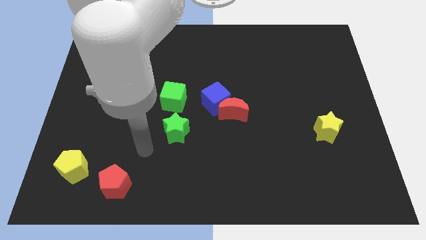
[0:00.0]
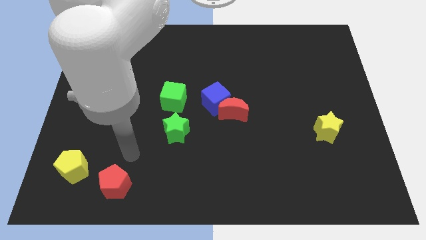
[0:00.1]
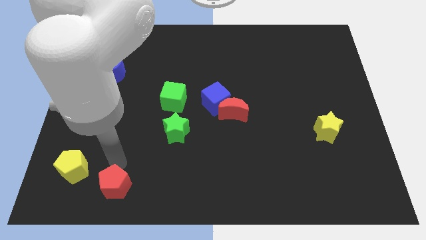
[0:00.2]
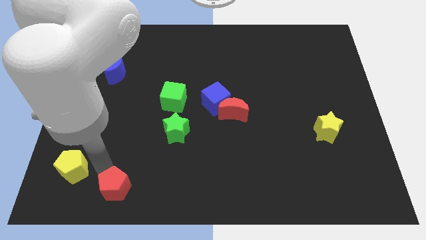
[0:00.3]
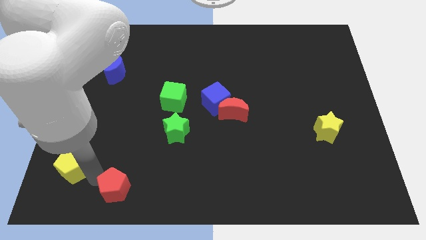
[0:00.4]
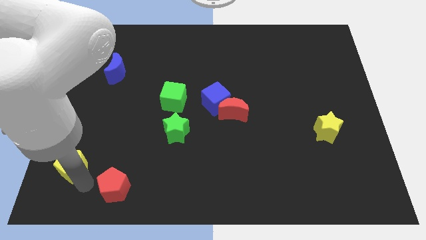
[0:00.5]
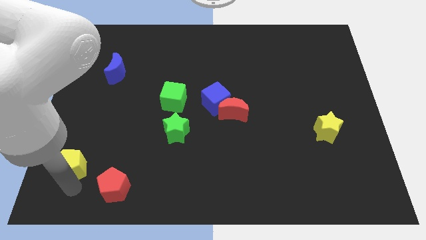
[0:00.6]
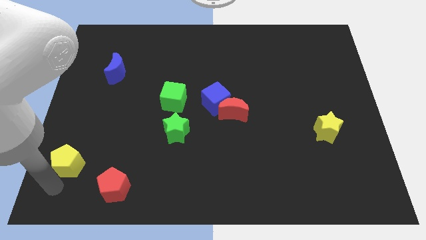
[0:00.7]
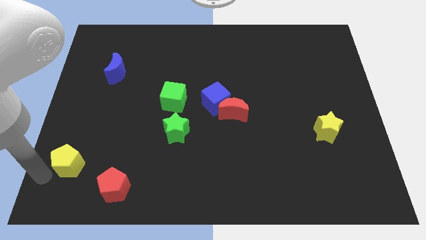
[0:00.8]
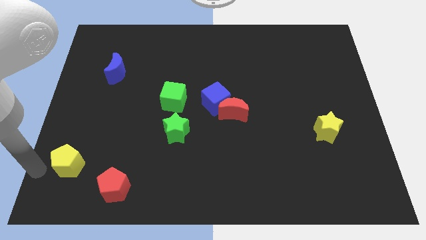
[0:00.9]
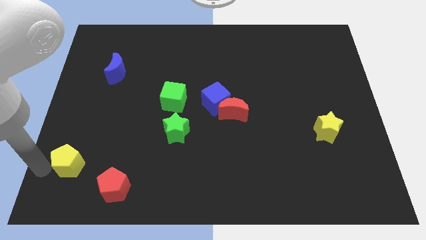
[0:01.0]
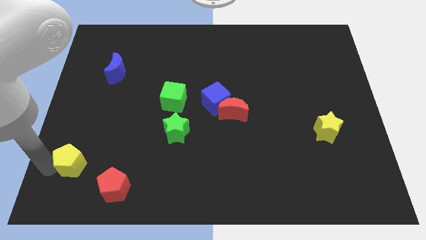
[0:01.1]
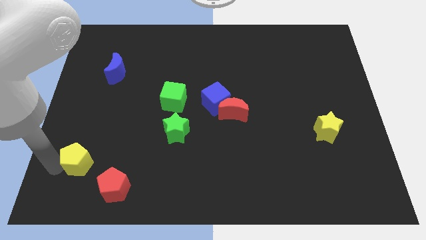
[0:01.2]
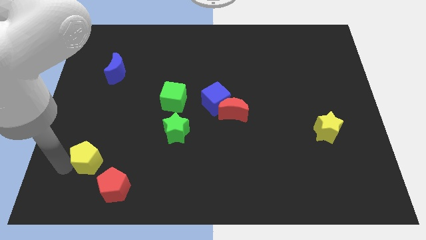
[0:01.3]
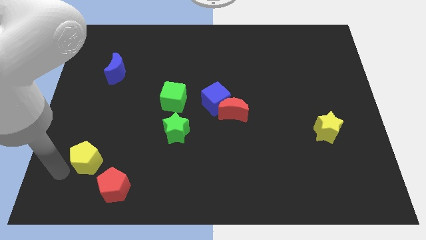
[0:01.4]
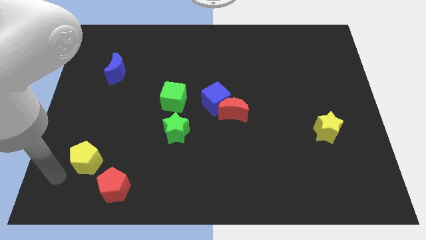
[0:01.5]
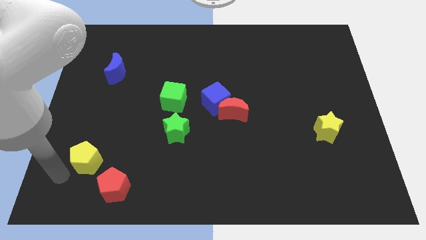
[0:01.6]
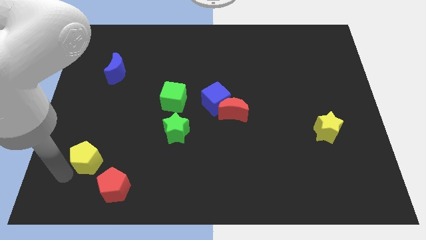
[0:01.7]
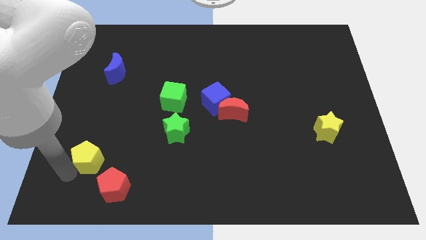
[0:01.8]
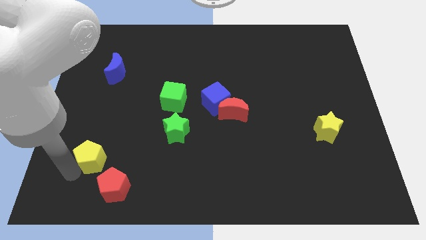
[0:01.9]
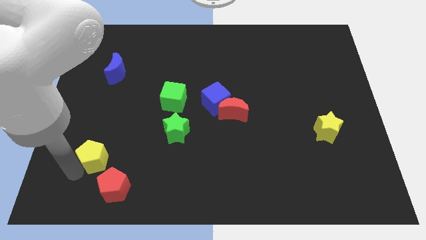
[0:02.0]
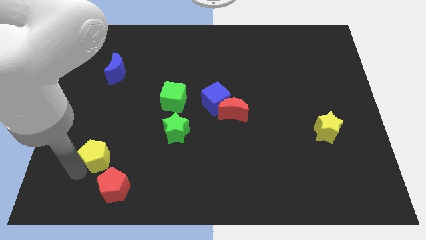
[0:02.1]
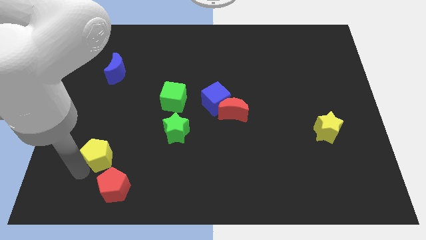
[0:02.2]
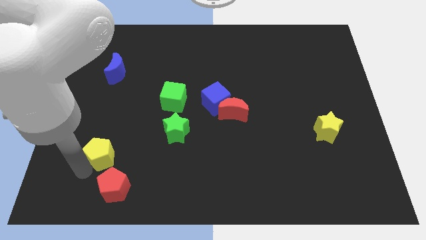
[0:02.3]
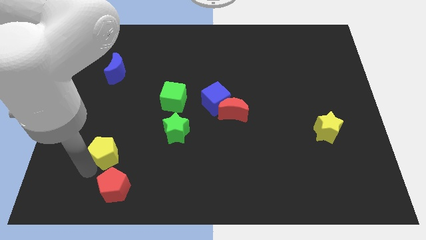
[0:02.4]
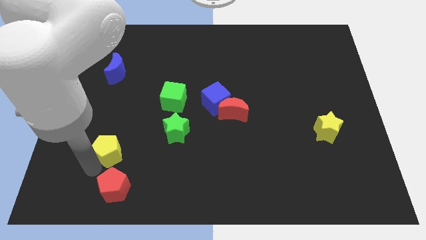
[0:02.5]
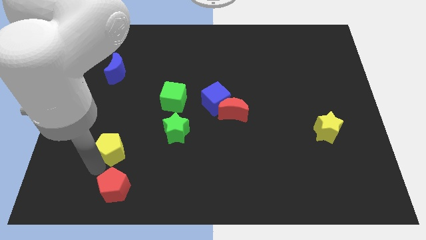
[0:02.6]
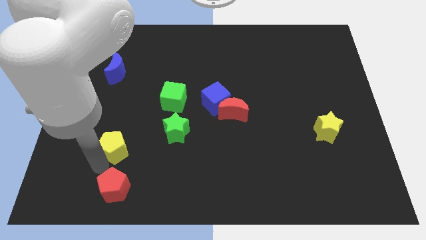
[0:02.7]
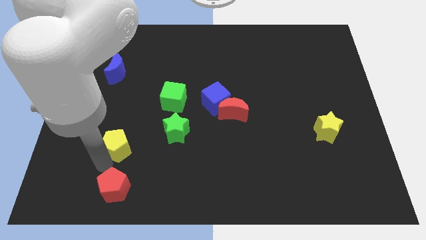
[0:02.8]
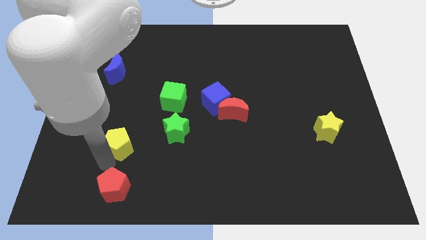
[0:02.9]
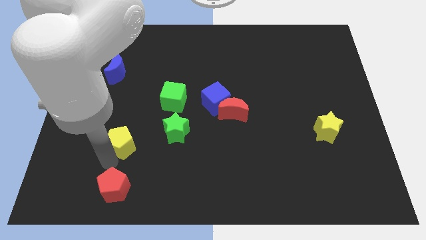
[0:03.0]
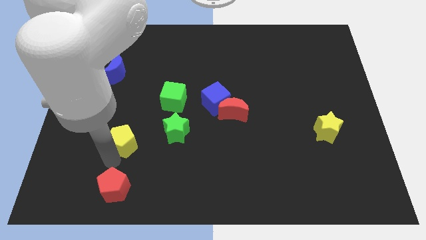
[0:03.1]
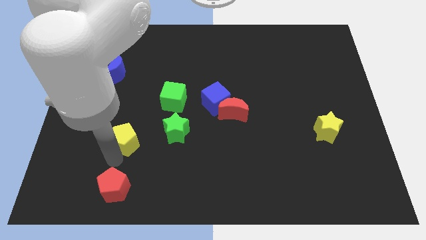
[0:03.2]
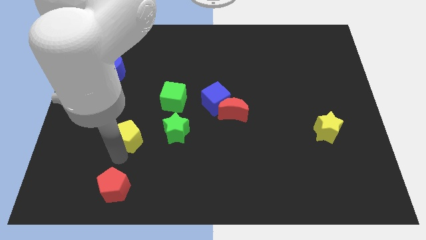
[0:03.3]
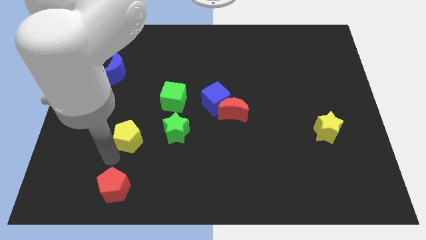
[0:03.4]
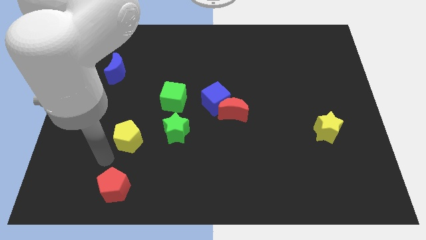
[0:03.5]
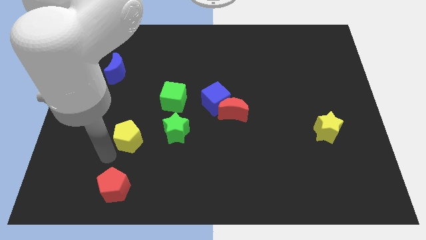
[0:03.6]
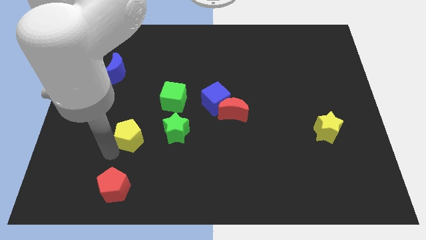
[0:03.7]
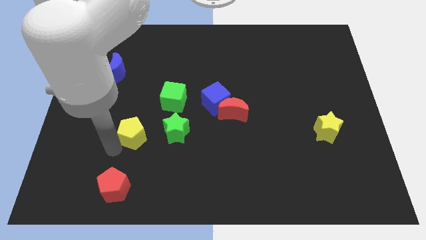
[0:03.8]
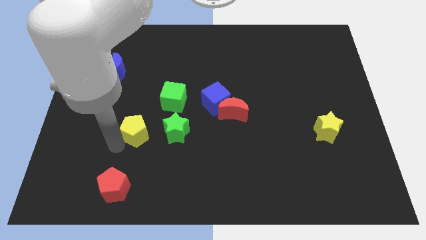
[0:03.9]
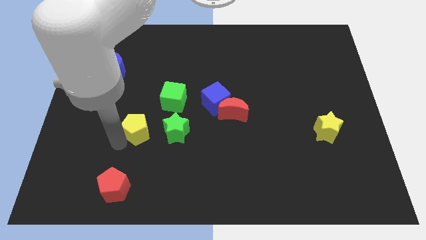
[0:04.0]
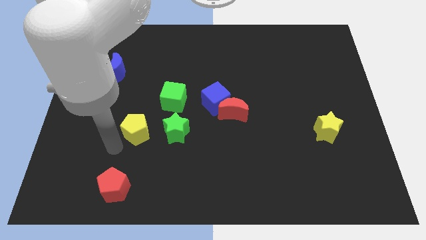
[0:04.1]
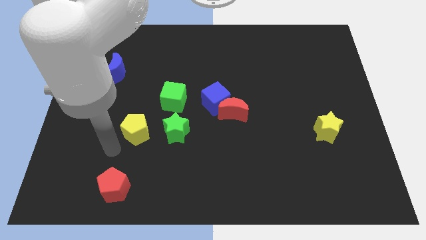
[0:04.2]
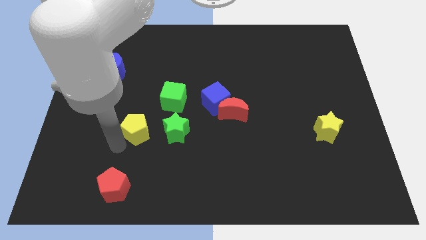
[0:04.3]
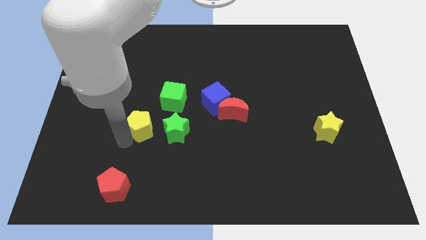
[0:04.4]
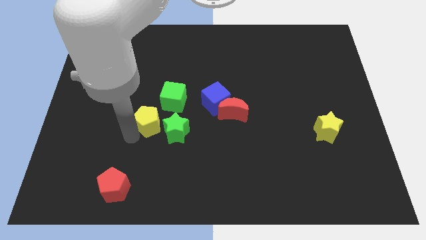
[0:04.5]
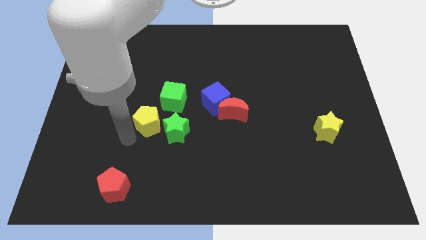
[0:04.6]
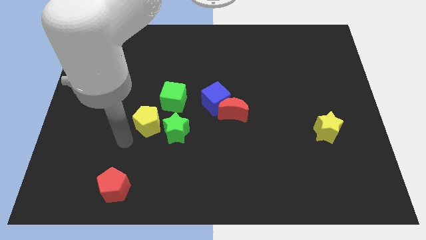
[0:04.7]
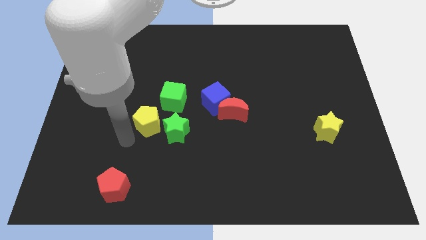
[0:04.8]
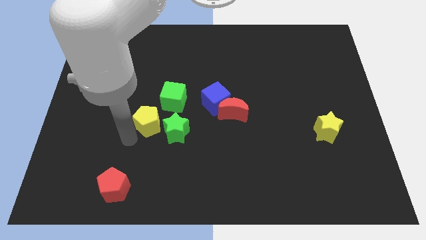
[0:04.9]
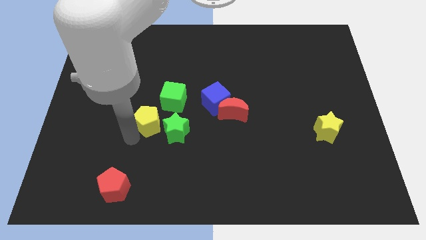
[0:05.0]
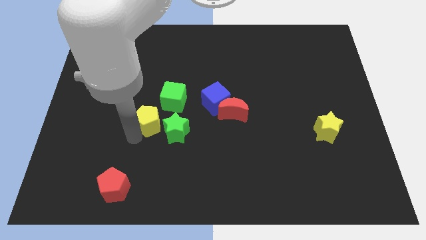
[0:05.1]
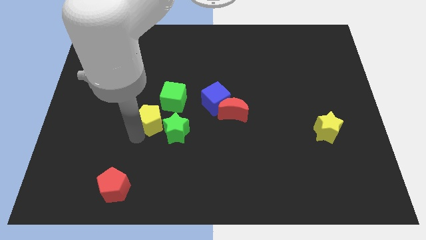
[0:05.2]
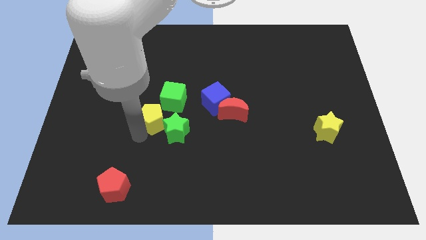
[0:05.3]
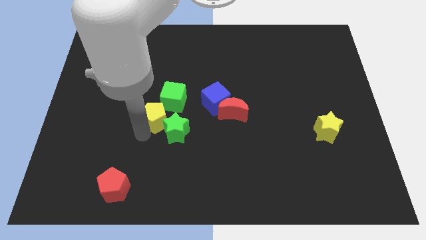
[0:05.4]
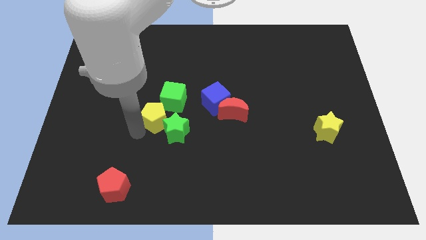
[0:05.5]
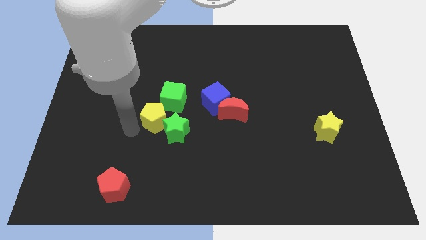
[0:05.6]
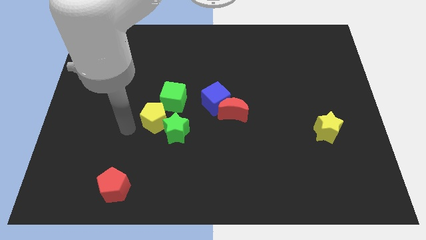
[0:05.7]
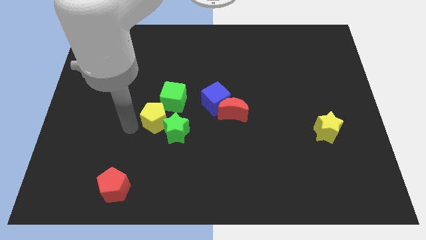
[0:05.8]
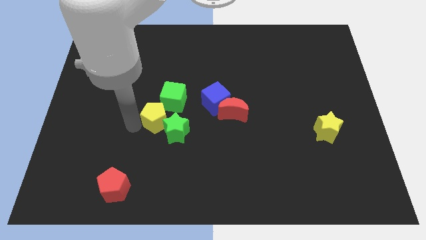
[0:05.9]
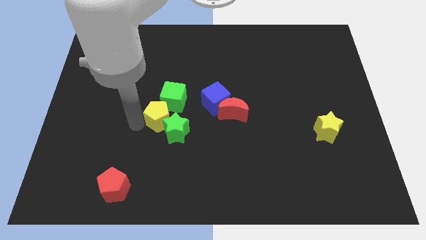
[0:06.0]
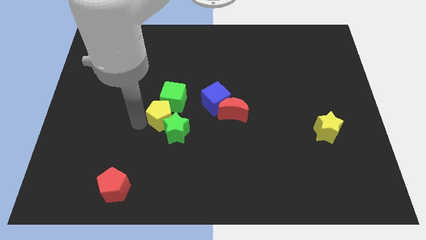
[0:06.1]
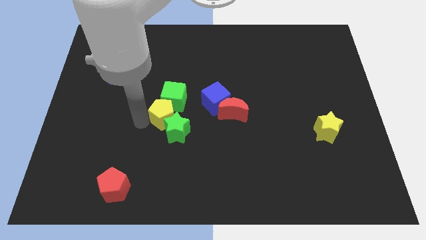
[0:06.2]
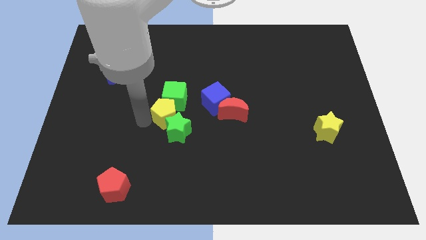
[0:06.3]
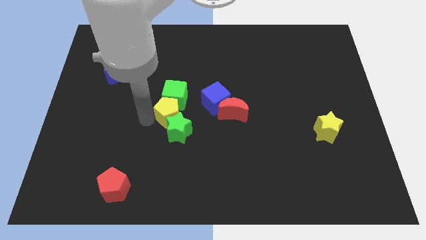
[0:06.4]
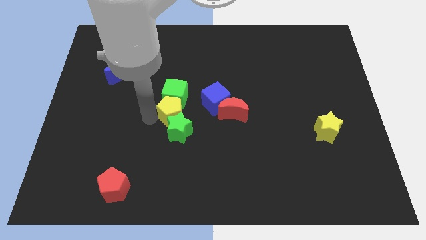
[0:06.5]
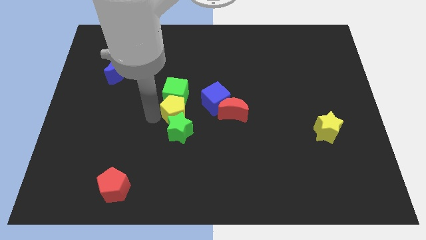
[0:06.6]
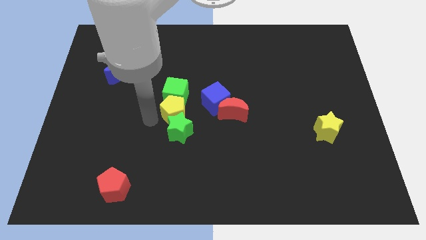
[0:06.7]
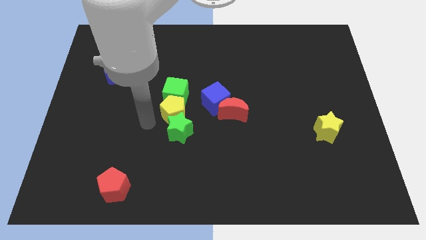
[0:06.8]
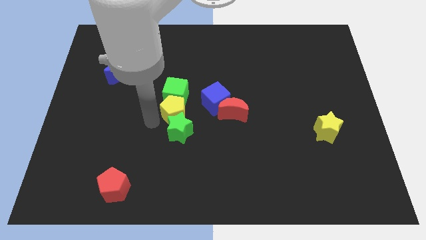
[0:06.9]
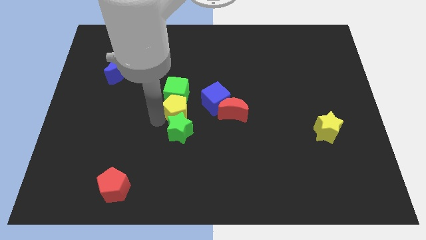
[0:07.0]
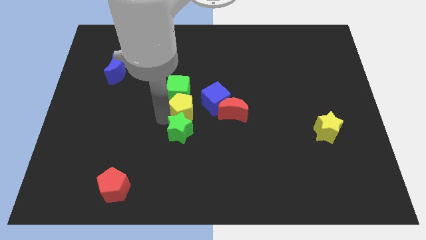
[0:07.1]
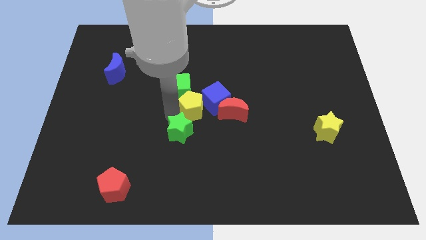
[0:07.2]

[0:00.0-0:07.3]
move the yellow pentagon towards the blue cube
